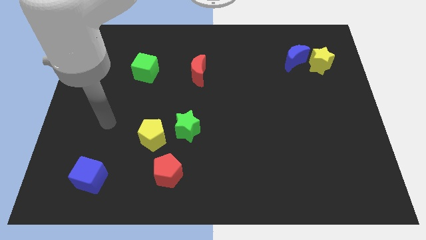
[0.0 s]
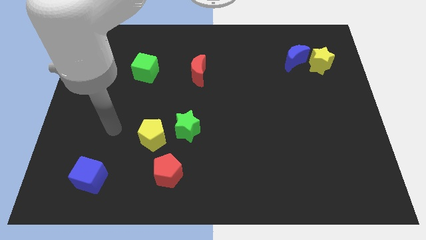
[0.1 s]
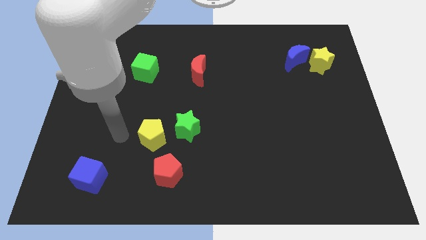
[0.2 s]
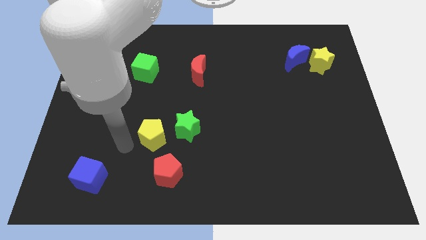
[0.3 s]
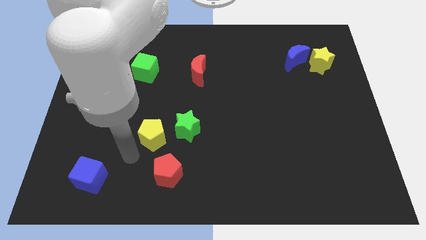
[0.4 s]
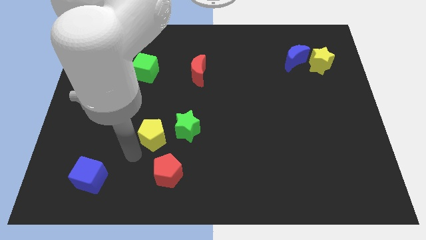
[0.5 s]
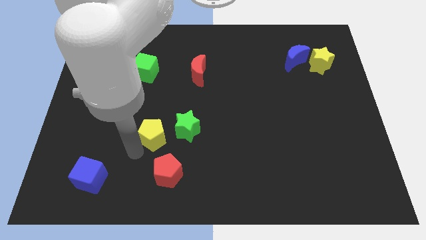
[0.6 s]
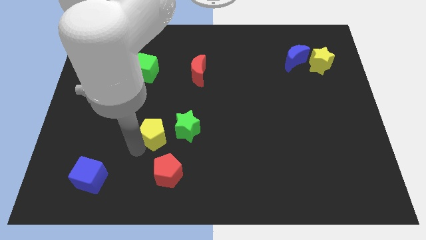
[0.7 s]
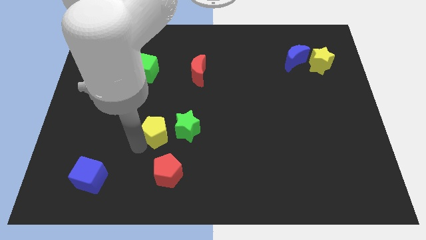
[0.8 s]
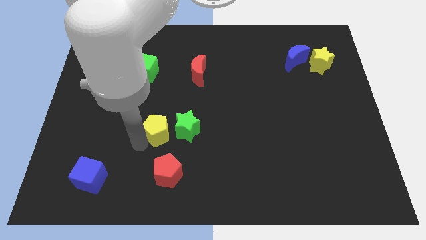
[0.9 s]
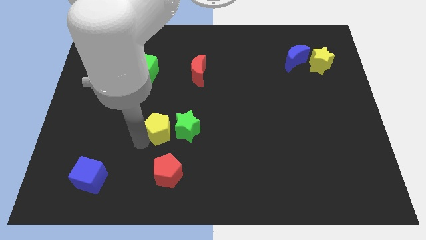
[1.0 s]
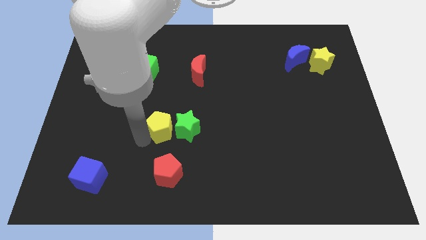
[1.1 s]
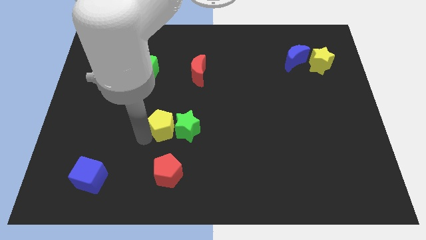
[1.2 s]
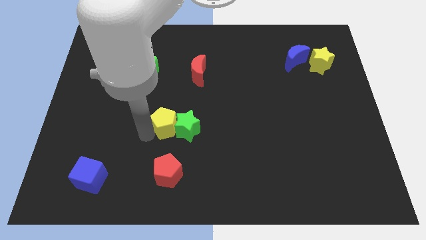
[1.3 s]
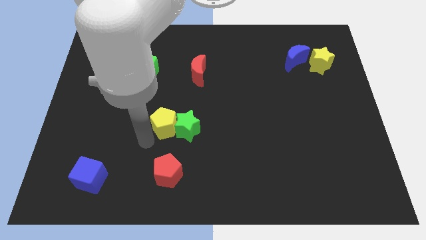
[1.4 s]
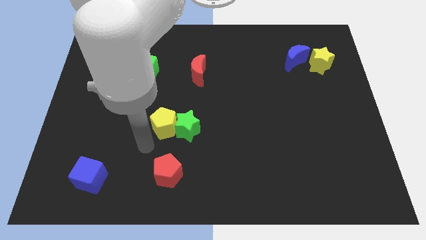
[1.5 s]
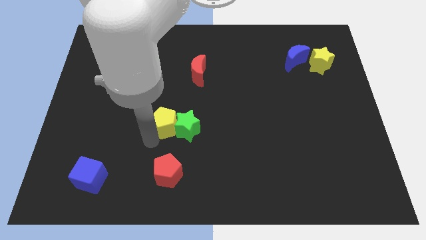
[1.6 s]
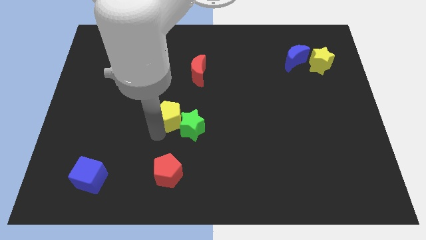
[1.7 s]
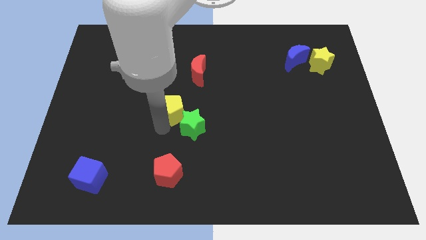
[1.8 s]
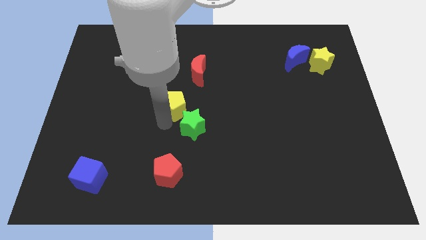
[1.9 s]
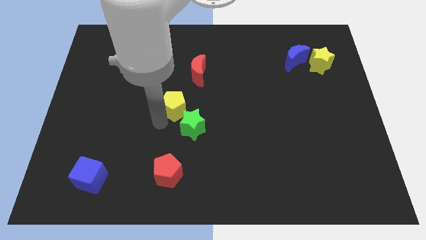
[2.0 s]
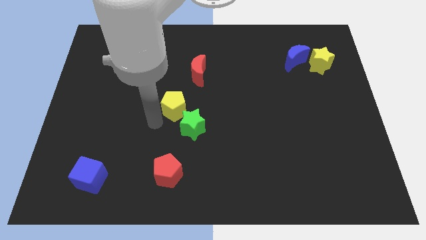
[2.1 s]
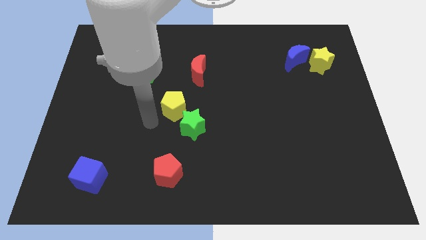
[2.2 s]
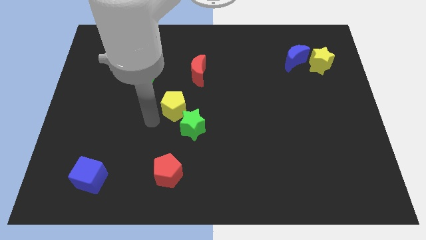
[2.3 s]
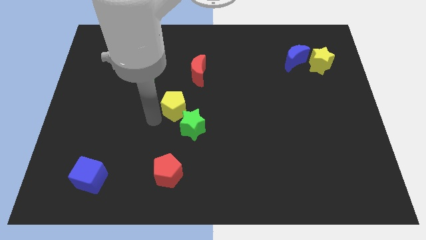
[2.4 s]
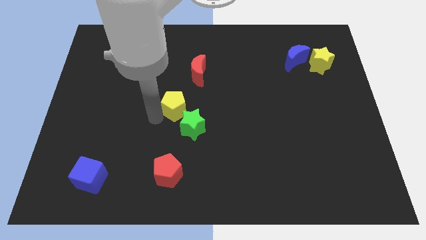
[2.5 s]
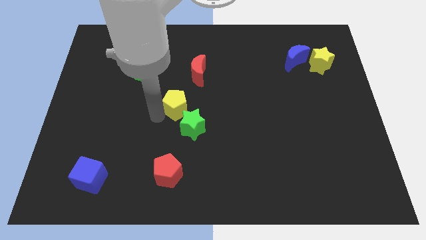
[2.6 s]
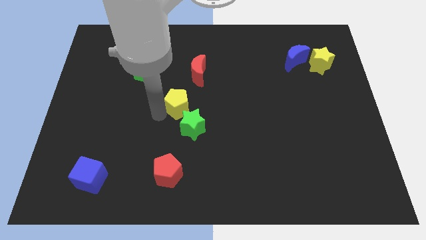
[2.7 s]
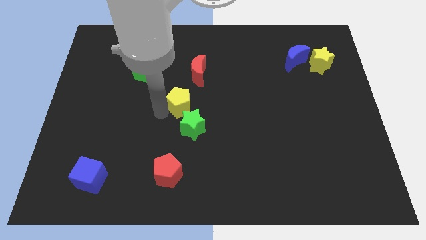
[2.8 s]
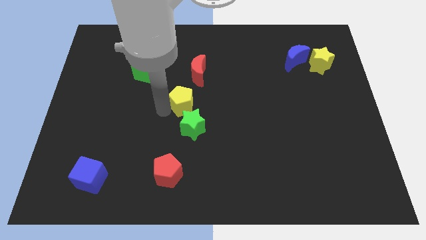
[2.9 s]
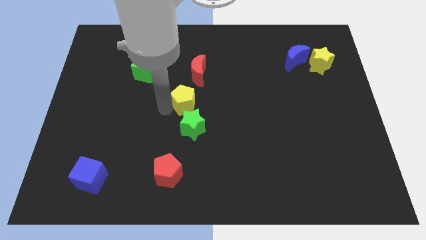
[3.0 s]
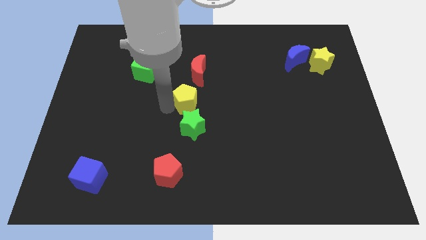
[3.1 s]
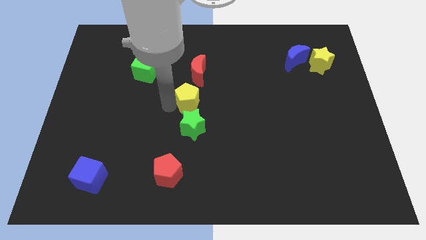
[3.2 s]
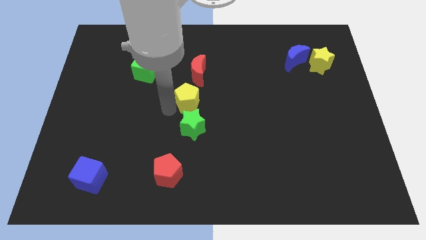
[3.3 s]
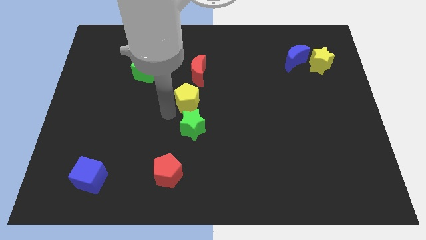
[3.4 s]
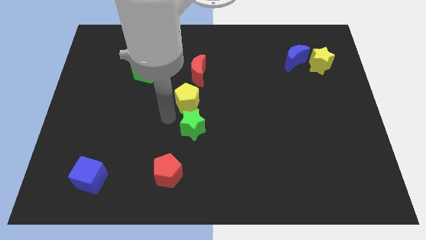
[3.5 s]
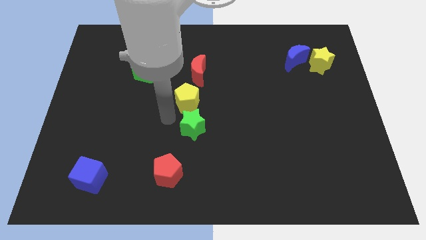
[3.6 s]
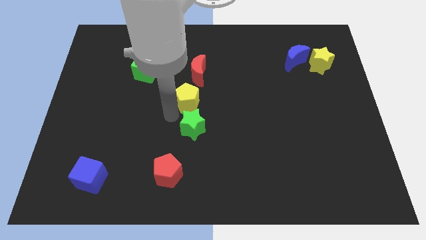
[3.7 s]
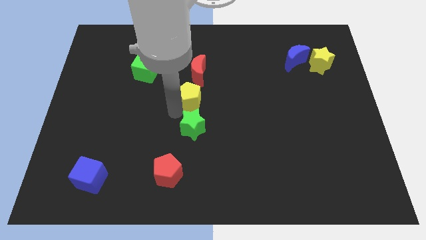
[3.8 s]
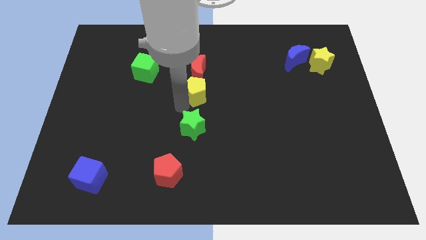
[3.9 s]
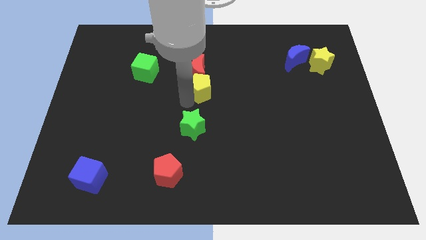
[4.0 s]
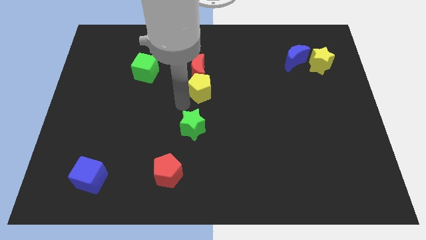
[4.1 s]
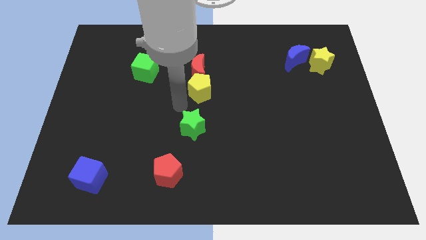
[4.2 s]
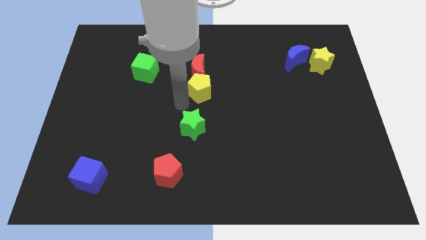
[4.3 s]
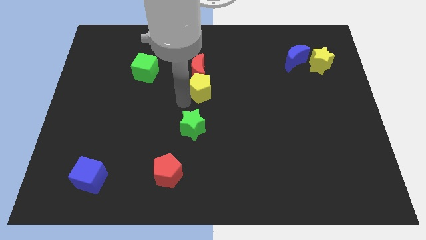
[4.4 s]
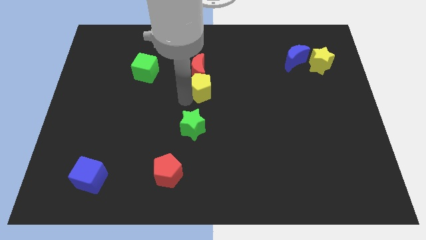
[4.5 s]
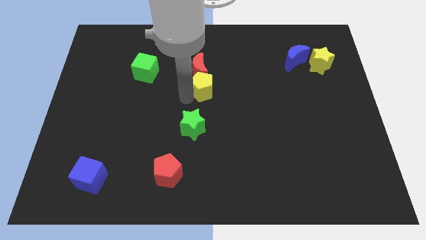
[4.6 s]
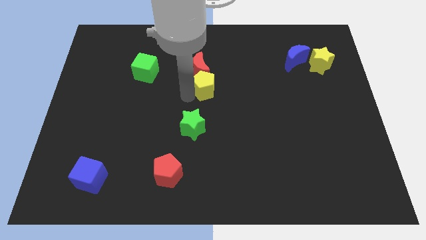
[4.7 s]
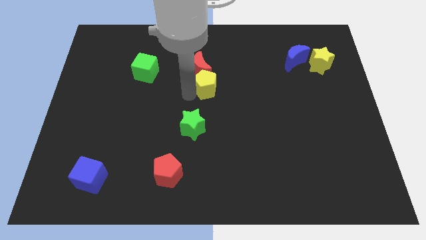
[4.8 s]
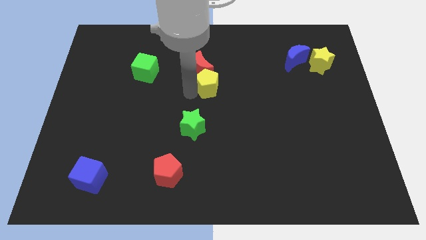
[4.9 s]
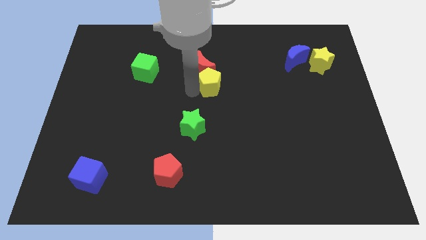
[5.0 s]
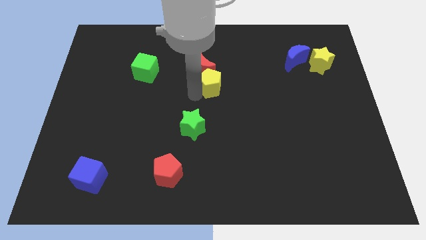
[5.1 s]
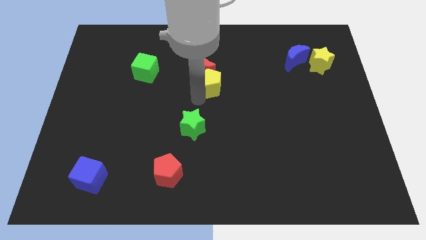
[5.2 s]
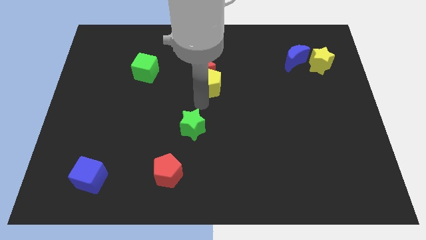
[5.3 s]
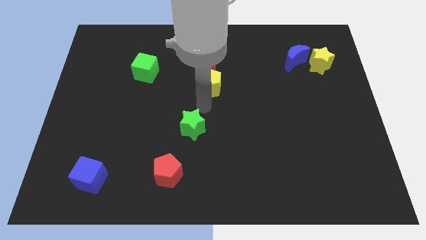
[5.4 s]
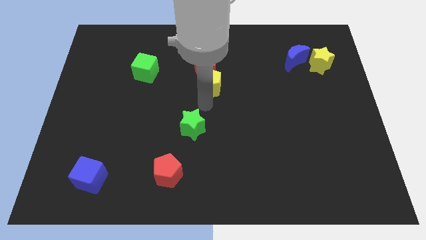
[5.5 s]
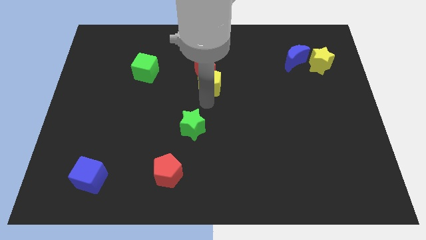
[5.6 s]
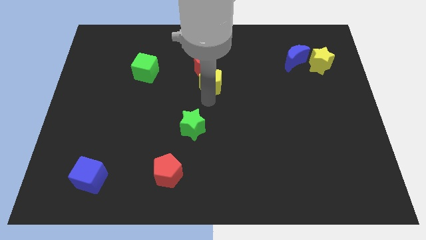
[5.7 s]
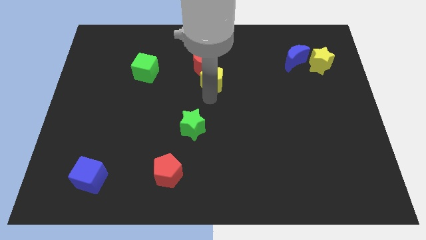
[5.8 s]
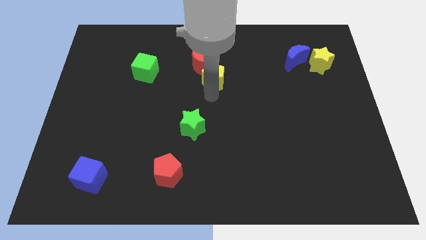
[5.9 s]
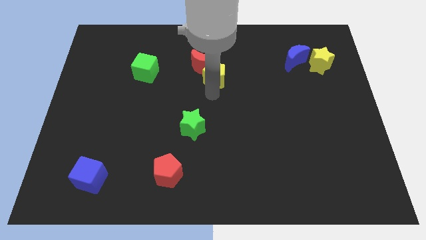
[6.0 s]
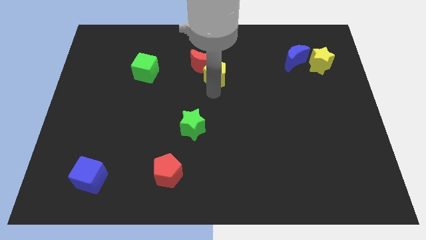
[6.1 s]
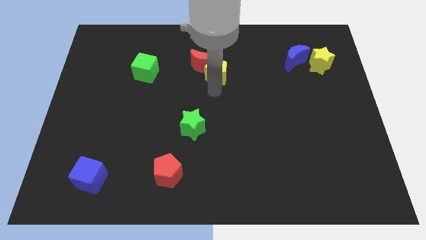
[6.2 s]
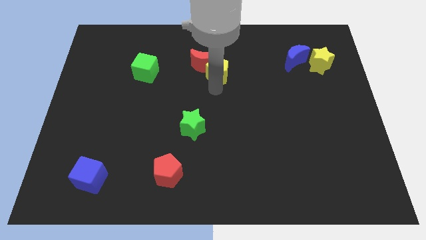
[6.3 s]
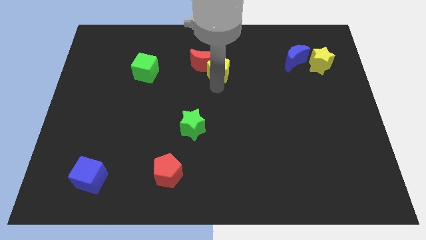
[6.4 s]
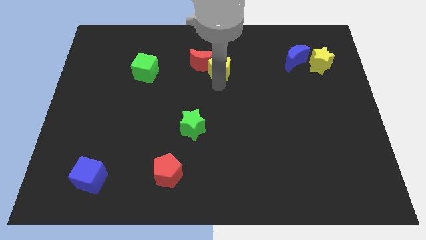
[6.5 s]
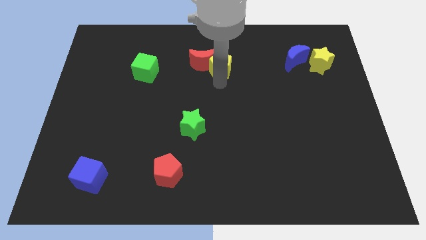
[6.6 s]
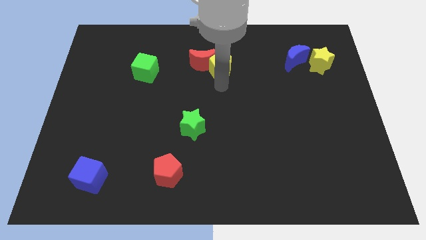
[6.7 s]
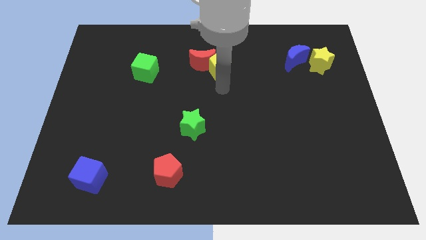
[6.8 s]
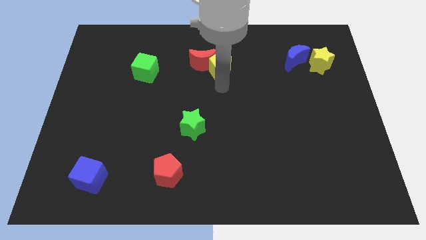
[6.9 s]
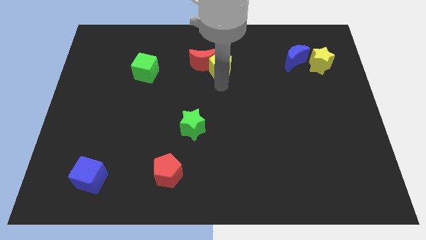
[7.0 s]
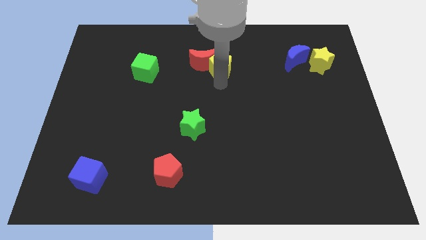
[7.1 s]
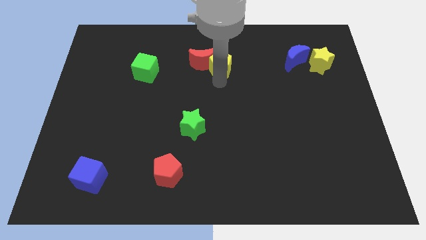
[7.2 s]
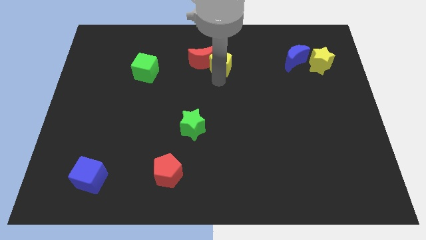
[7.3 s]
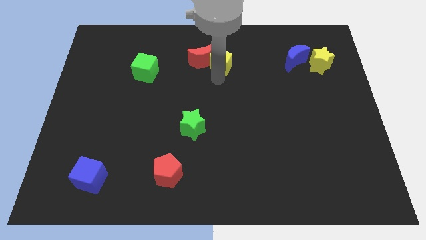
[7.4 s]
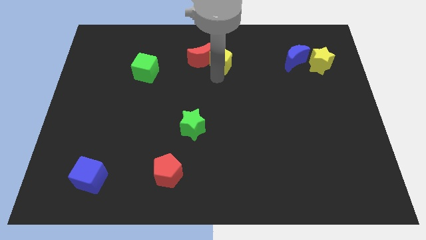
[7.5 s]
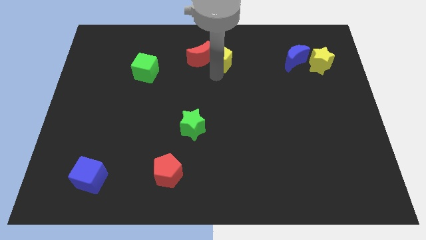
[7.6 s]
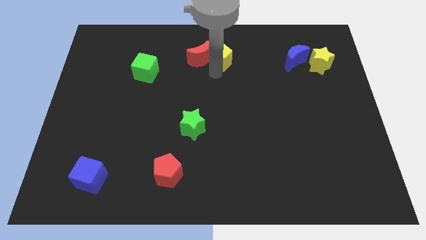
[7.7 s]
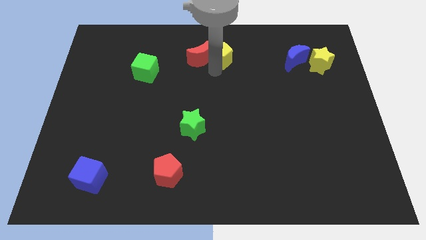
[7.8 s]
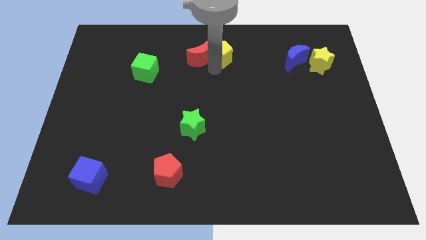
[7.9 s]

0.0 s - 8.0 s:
put the yellow pentagon to the towards your base
